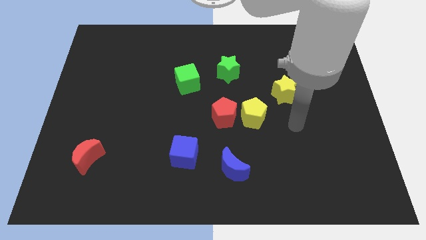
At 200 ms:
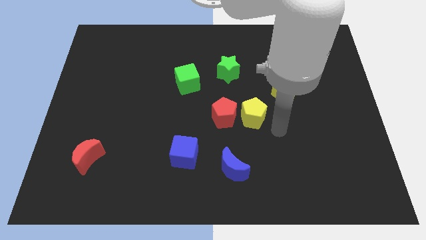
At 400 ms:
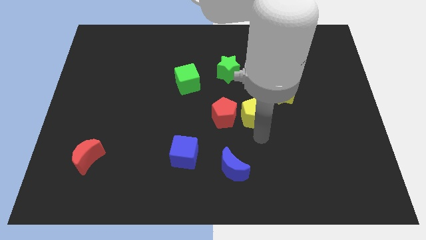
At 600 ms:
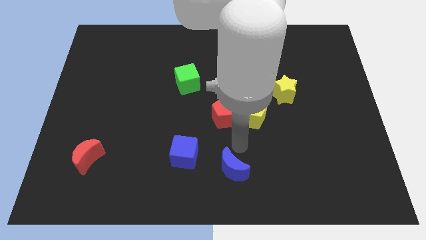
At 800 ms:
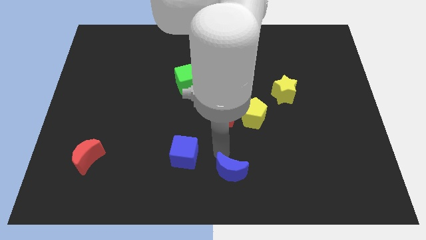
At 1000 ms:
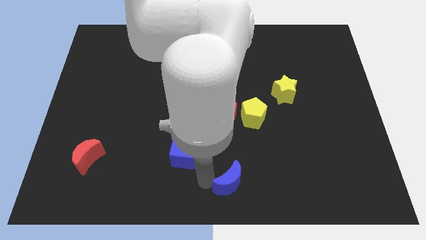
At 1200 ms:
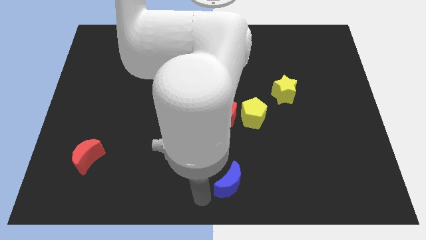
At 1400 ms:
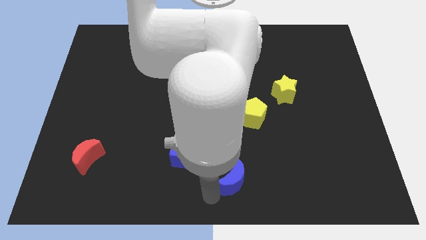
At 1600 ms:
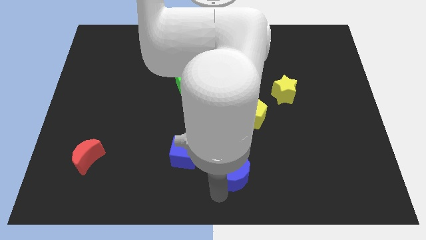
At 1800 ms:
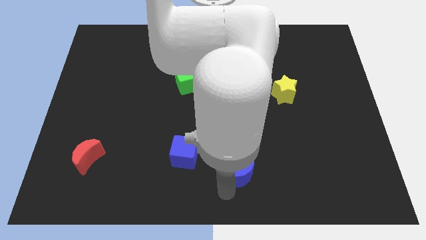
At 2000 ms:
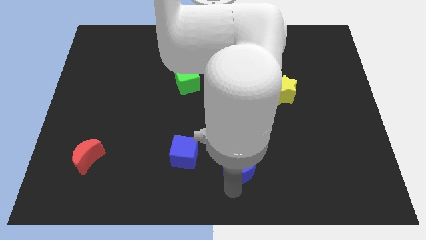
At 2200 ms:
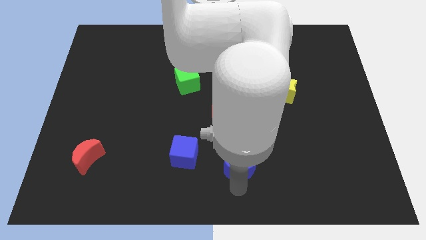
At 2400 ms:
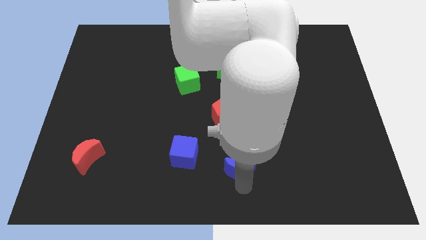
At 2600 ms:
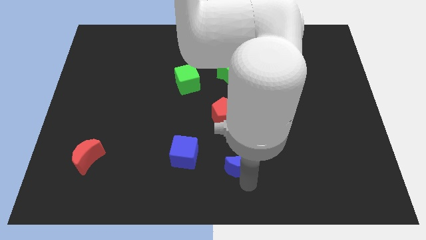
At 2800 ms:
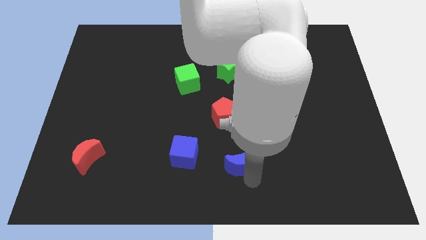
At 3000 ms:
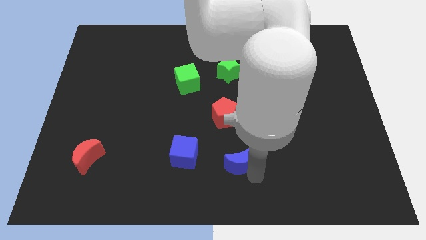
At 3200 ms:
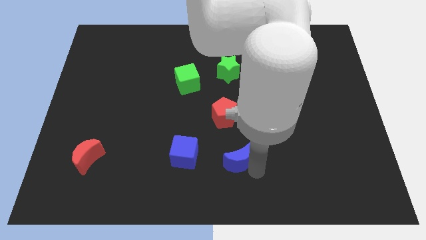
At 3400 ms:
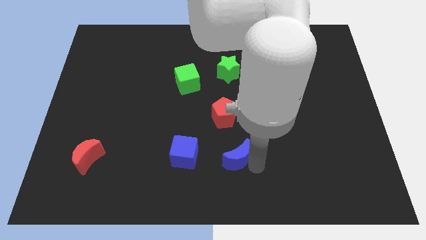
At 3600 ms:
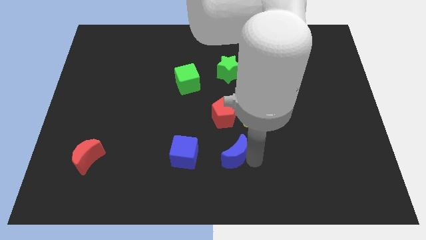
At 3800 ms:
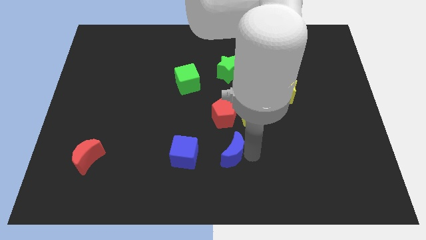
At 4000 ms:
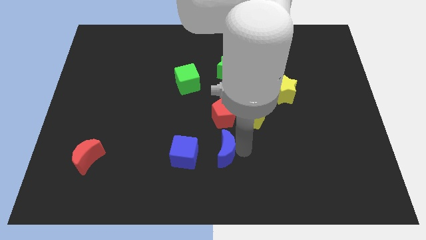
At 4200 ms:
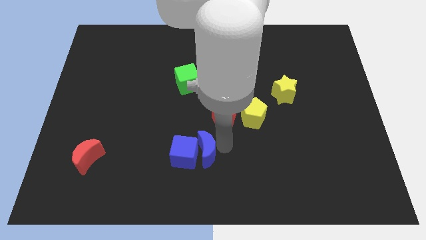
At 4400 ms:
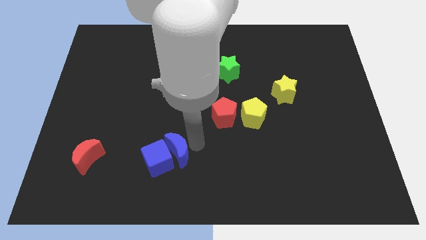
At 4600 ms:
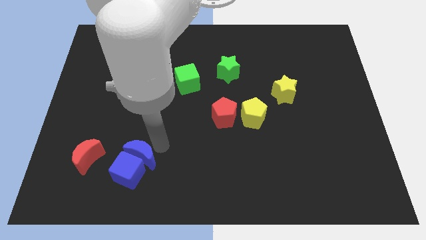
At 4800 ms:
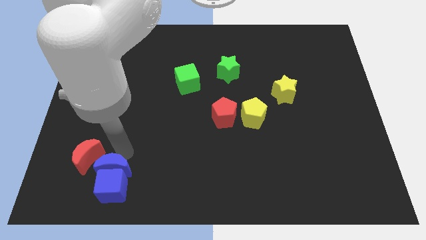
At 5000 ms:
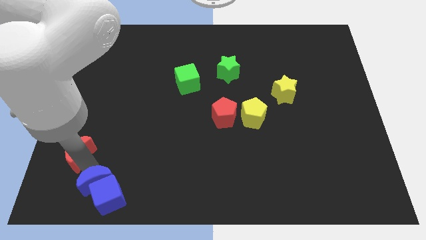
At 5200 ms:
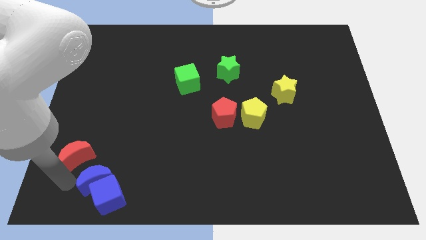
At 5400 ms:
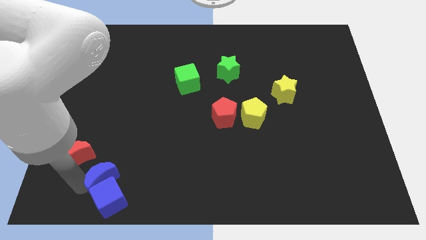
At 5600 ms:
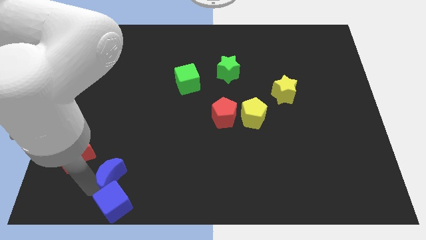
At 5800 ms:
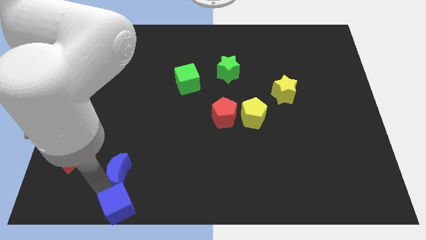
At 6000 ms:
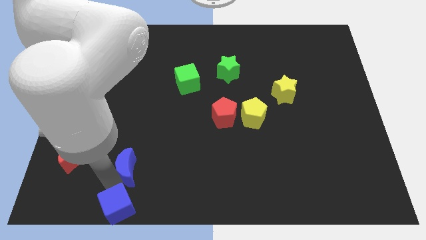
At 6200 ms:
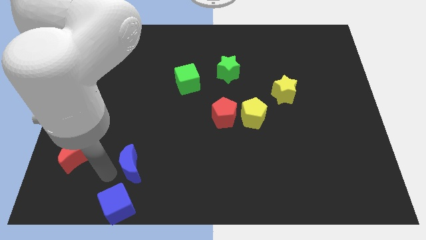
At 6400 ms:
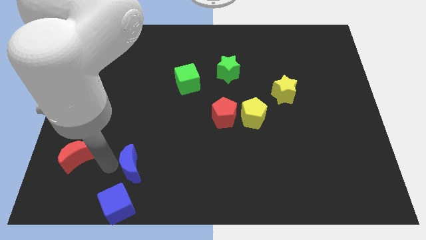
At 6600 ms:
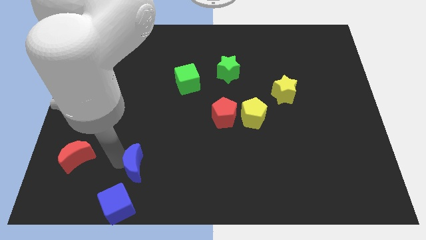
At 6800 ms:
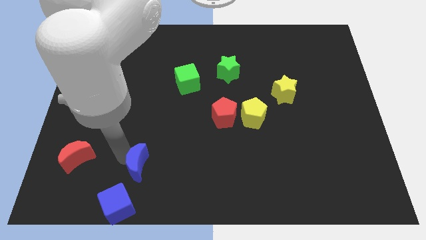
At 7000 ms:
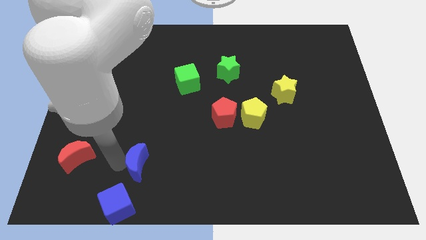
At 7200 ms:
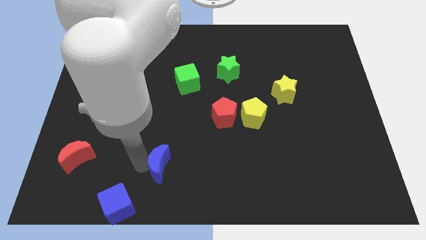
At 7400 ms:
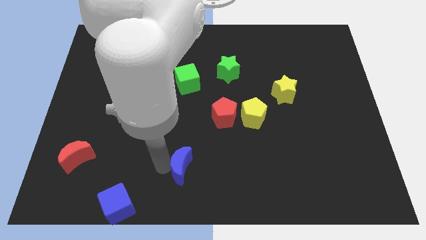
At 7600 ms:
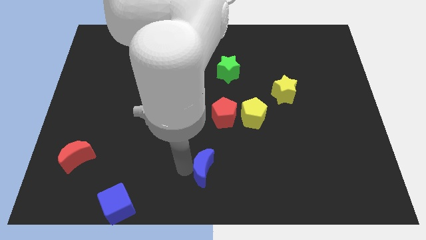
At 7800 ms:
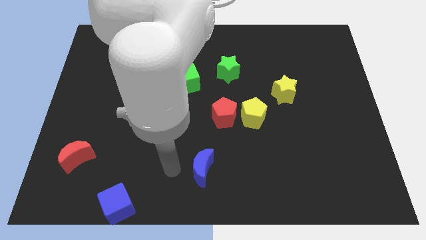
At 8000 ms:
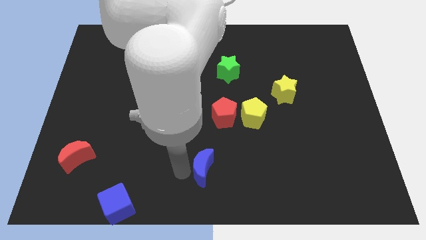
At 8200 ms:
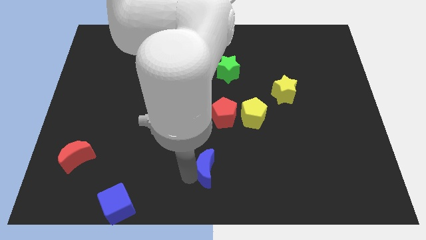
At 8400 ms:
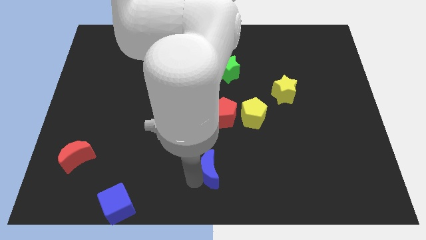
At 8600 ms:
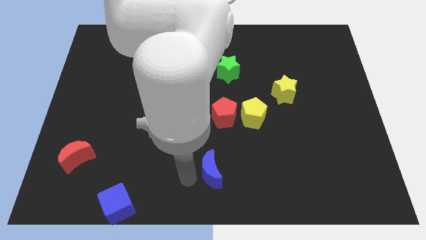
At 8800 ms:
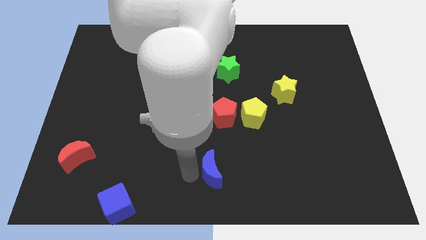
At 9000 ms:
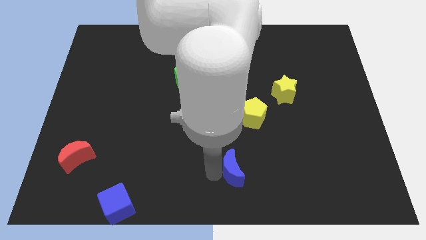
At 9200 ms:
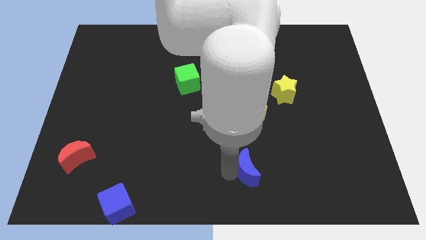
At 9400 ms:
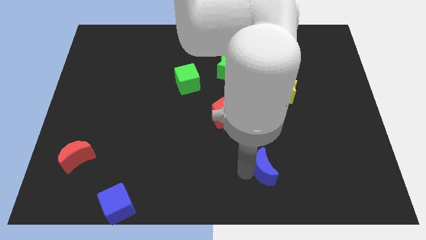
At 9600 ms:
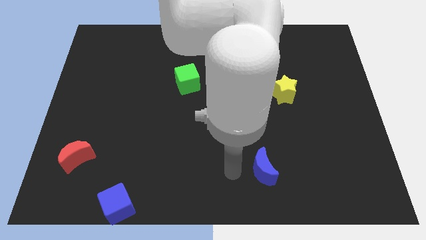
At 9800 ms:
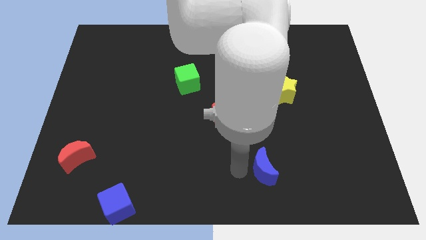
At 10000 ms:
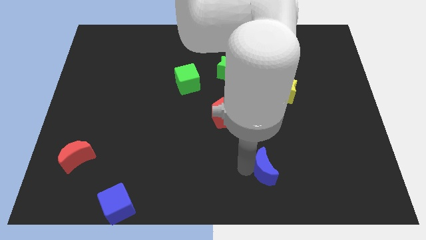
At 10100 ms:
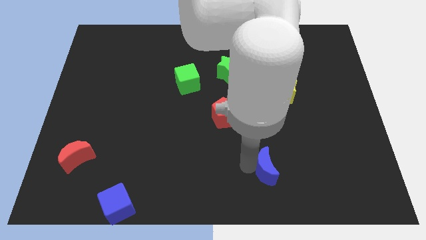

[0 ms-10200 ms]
slide the blue moon right a bit

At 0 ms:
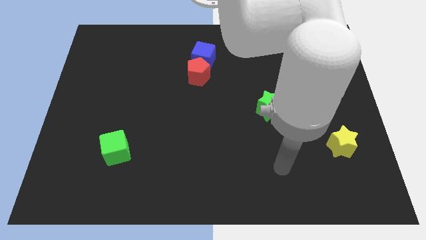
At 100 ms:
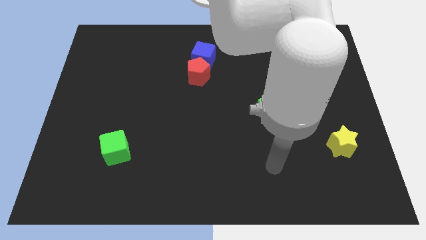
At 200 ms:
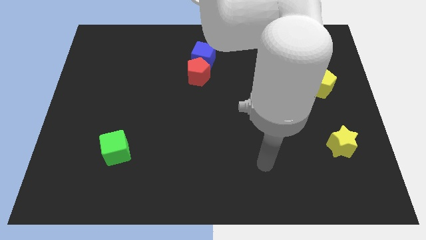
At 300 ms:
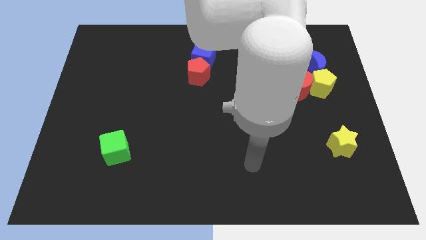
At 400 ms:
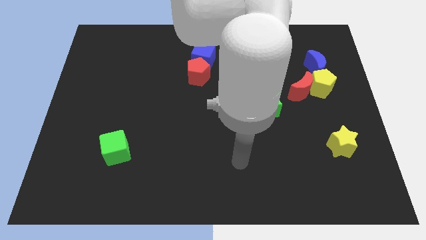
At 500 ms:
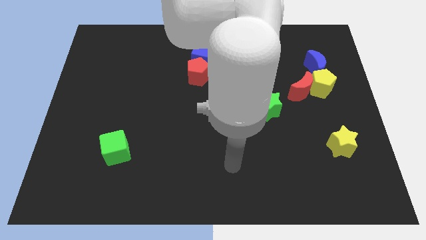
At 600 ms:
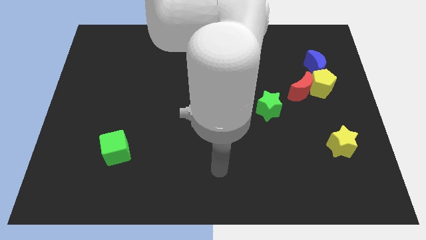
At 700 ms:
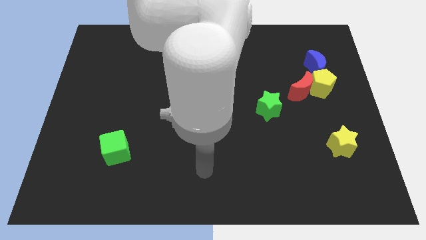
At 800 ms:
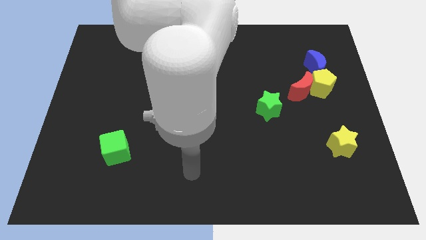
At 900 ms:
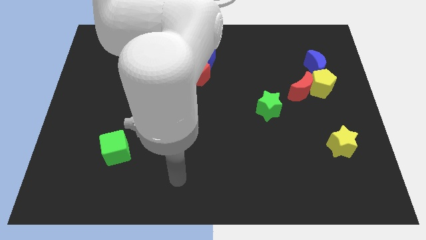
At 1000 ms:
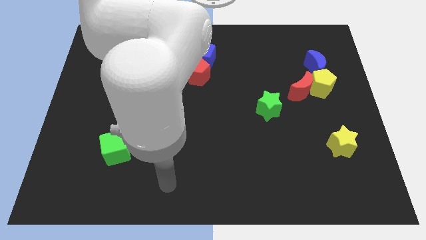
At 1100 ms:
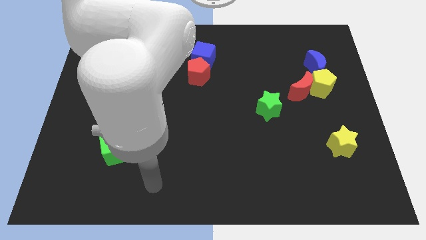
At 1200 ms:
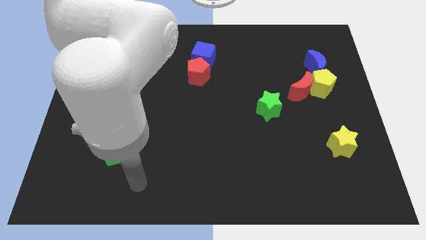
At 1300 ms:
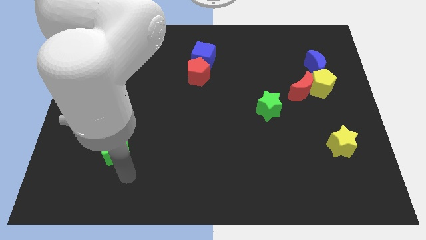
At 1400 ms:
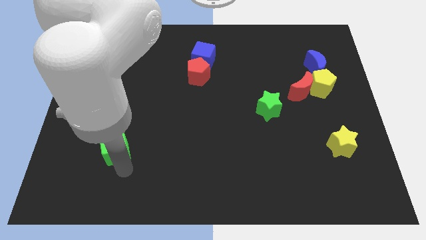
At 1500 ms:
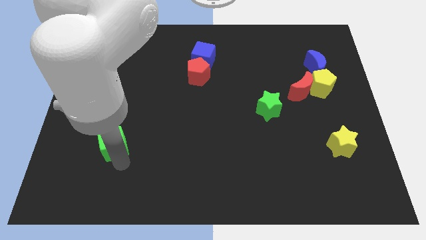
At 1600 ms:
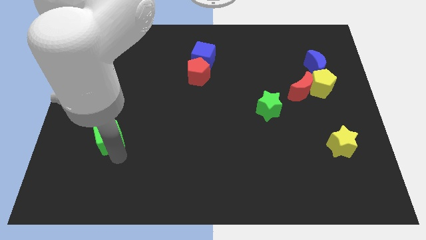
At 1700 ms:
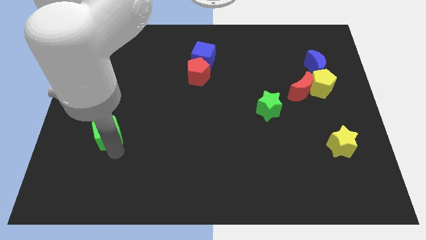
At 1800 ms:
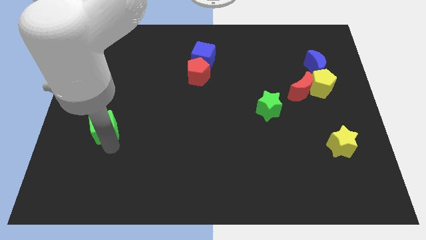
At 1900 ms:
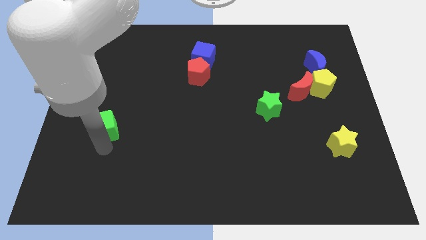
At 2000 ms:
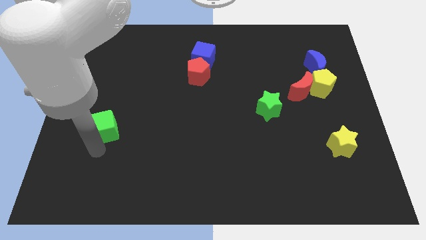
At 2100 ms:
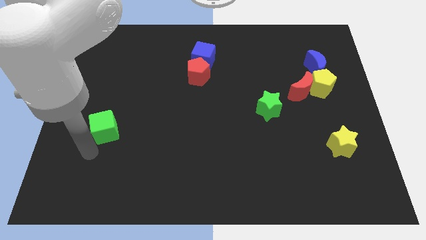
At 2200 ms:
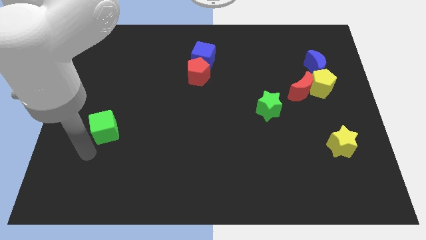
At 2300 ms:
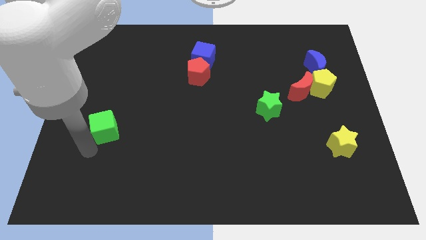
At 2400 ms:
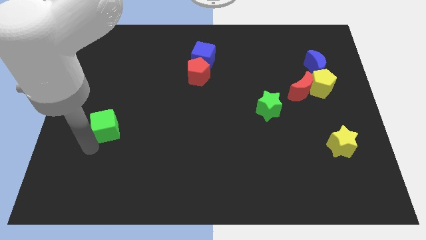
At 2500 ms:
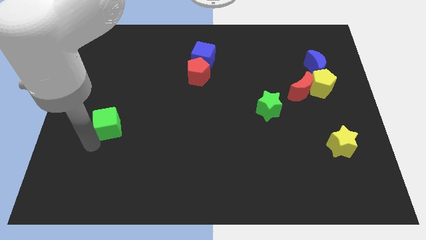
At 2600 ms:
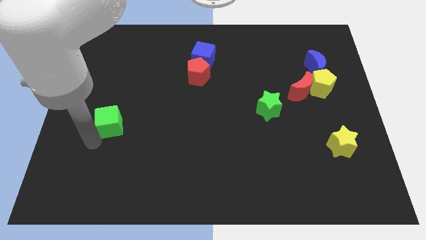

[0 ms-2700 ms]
slide the green cube somewhat up

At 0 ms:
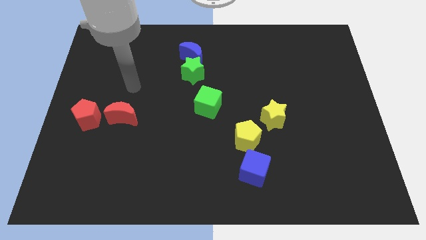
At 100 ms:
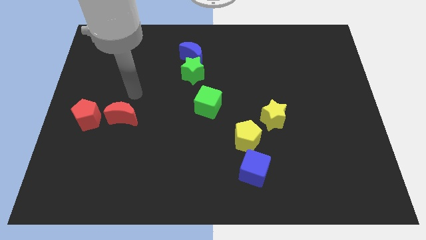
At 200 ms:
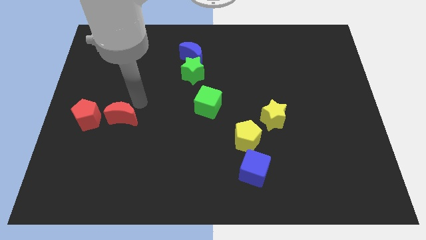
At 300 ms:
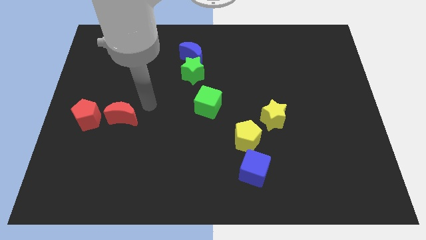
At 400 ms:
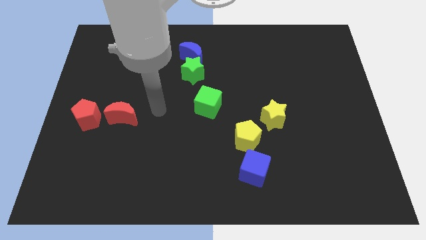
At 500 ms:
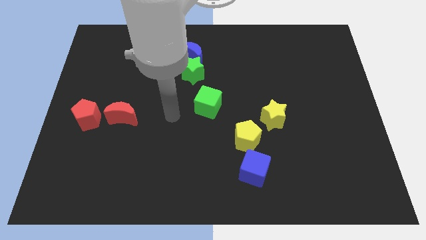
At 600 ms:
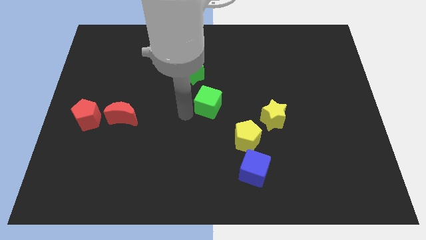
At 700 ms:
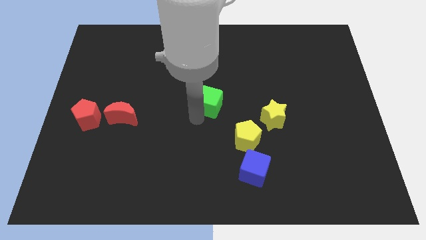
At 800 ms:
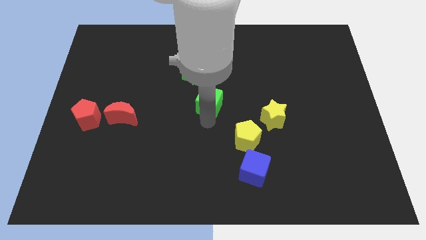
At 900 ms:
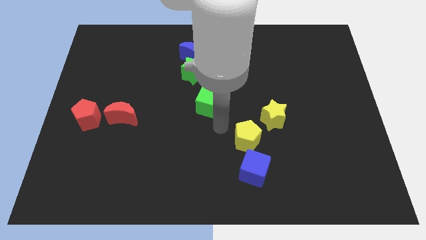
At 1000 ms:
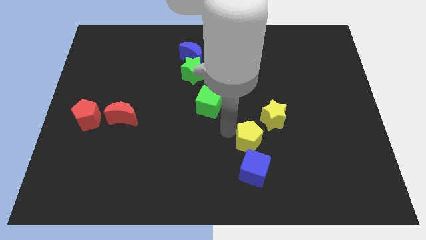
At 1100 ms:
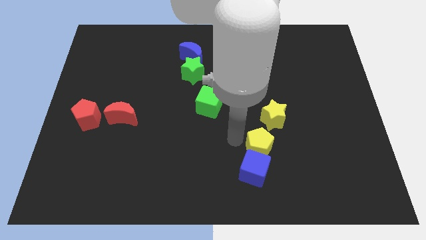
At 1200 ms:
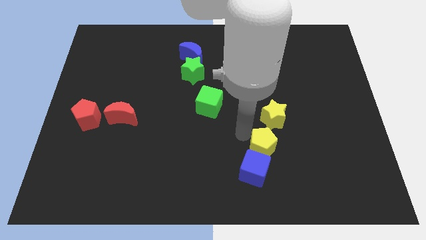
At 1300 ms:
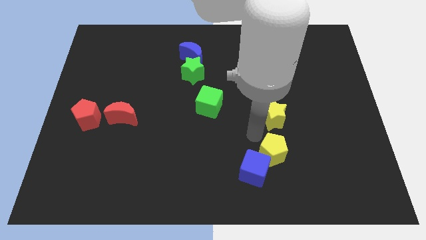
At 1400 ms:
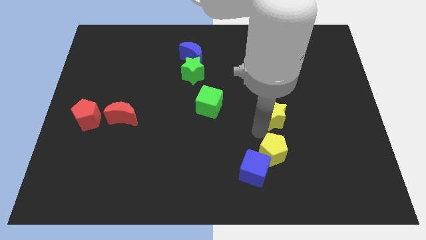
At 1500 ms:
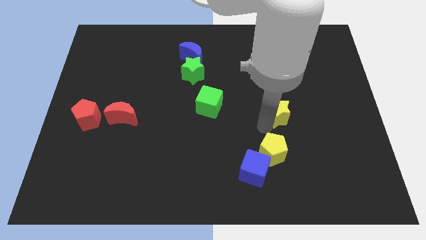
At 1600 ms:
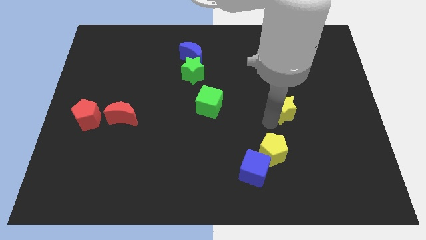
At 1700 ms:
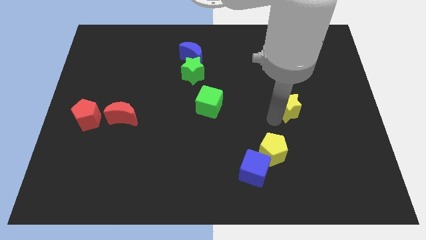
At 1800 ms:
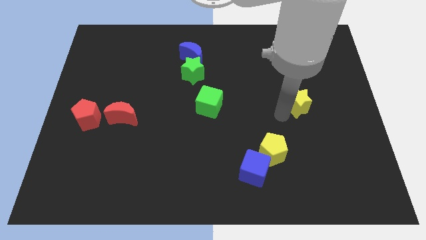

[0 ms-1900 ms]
push the yellow star up and to the right diagonally slightly
